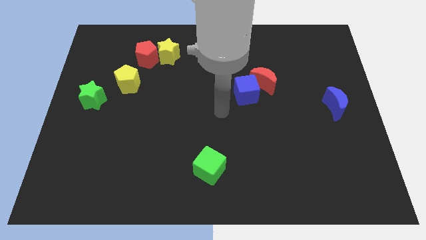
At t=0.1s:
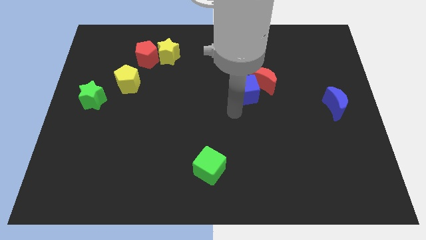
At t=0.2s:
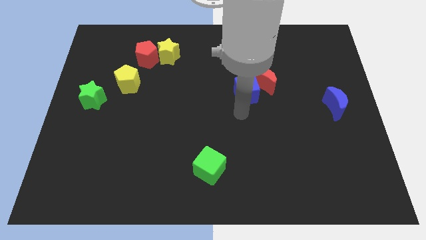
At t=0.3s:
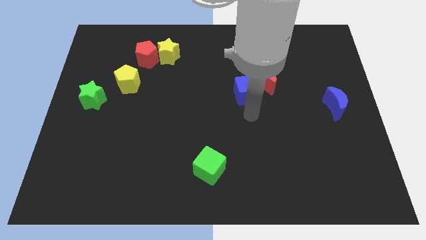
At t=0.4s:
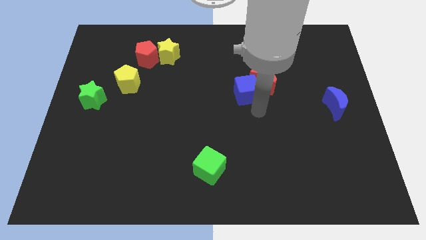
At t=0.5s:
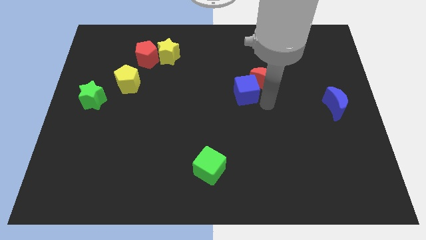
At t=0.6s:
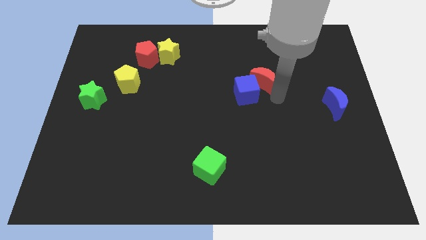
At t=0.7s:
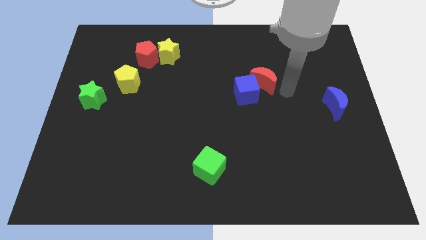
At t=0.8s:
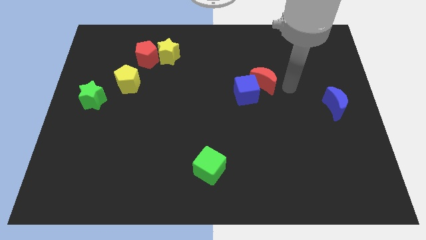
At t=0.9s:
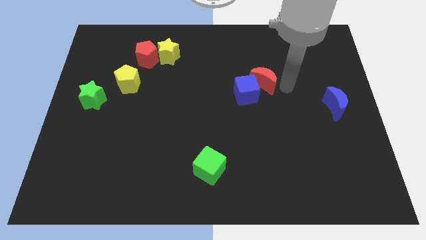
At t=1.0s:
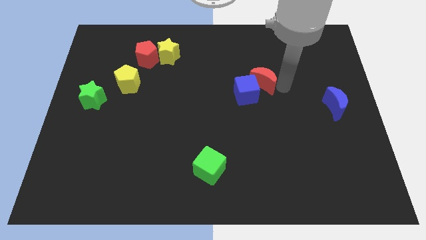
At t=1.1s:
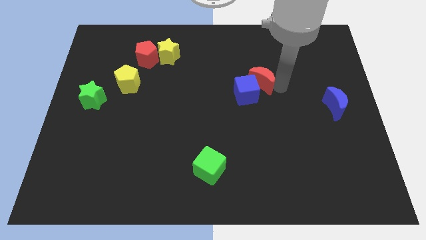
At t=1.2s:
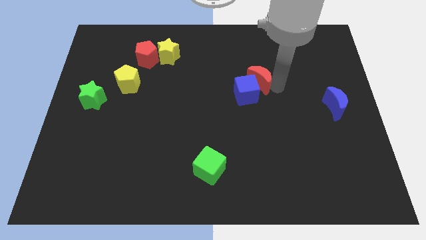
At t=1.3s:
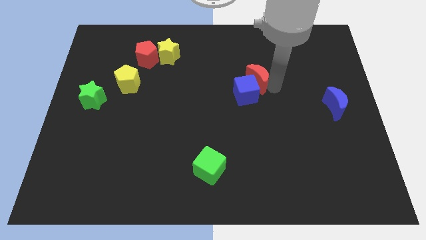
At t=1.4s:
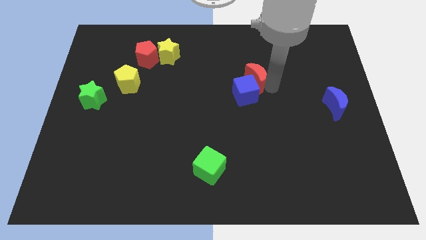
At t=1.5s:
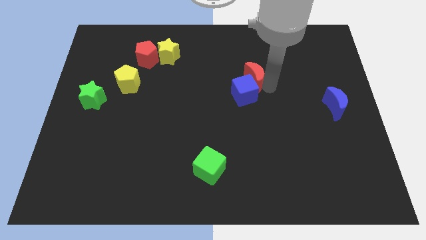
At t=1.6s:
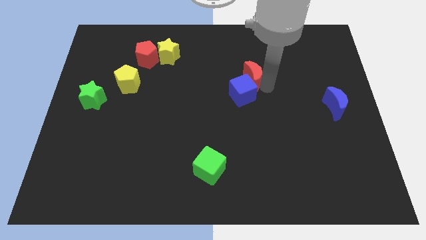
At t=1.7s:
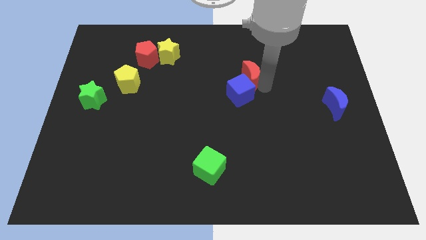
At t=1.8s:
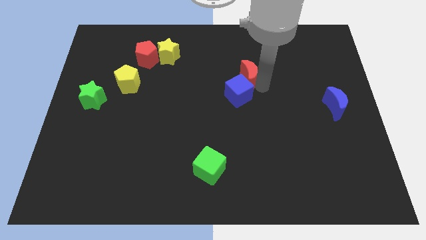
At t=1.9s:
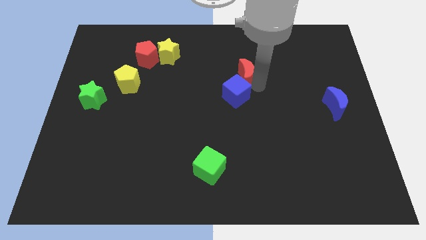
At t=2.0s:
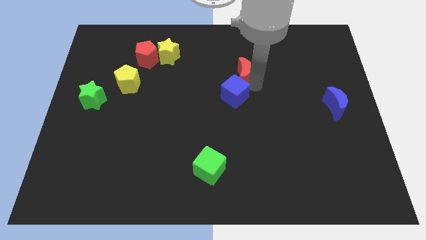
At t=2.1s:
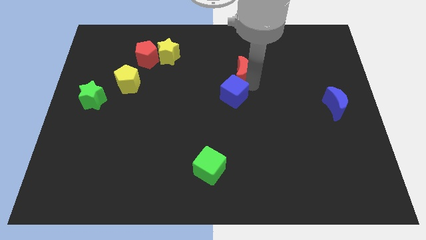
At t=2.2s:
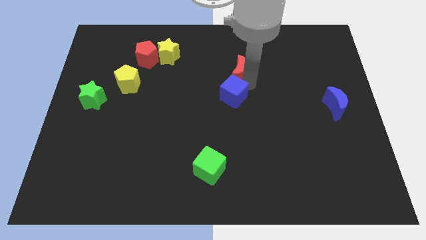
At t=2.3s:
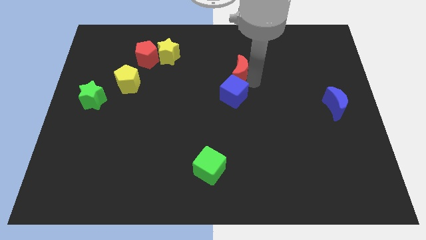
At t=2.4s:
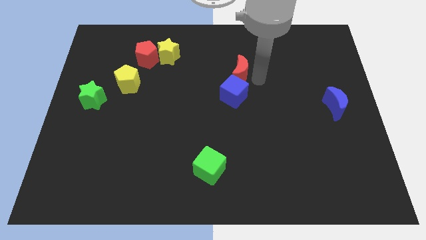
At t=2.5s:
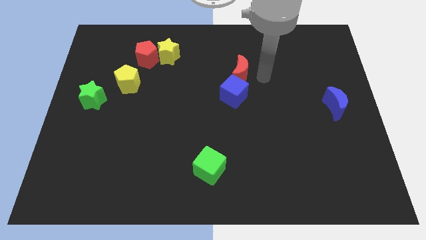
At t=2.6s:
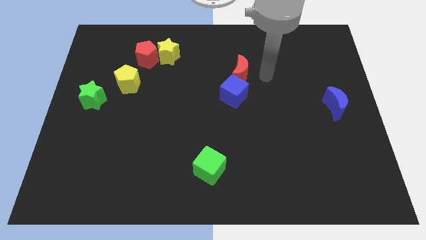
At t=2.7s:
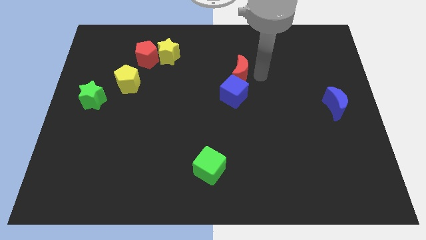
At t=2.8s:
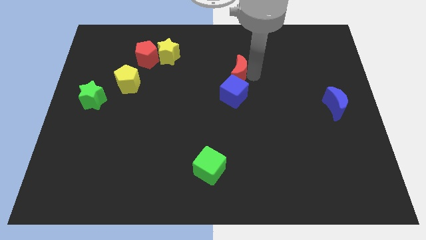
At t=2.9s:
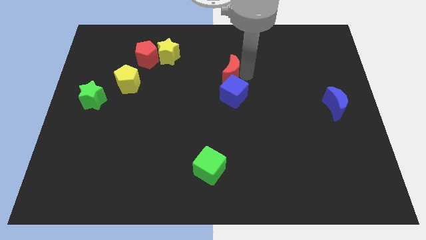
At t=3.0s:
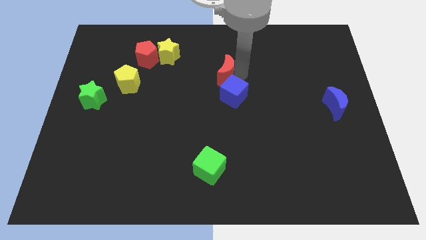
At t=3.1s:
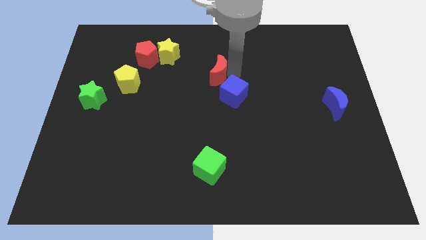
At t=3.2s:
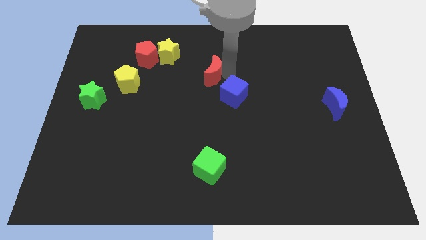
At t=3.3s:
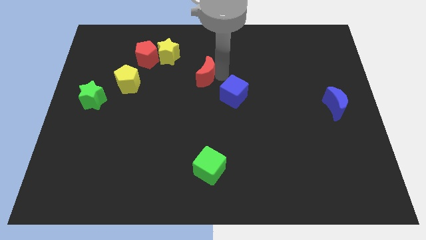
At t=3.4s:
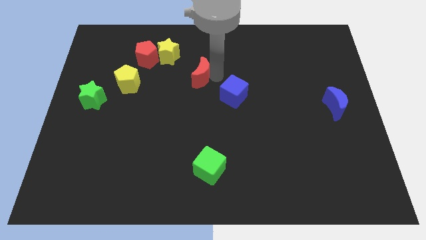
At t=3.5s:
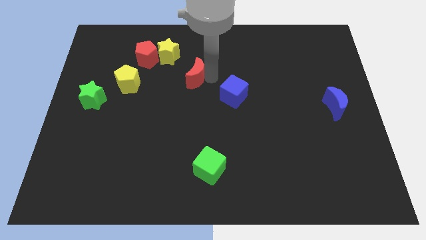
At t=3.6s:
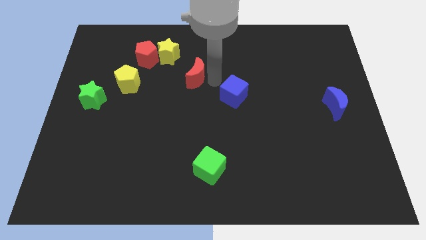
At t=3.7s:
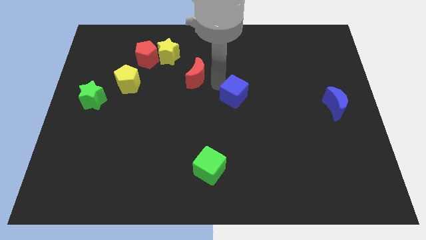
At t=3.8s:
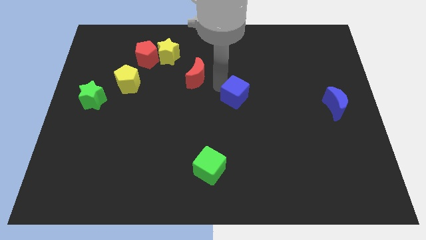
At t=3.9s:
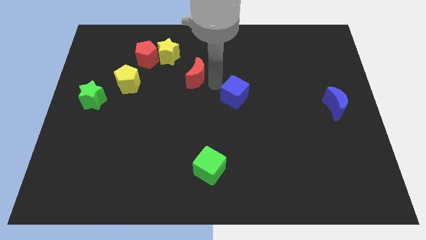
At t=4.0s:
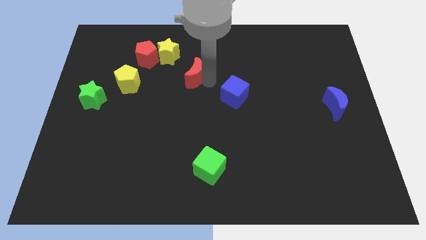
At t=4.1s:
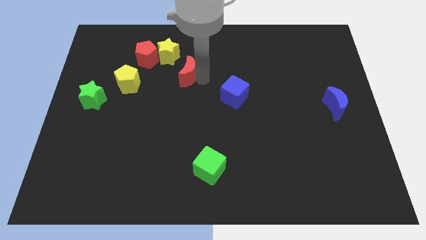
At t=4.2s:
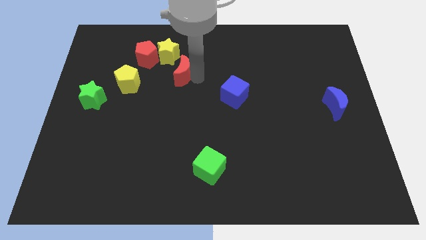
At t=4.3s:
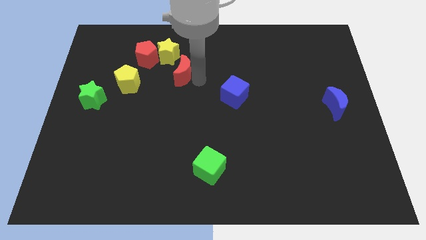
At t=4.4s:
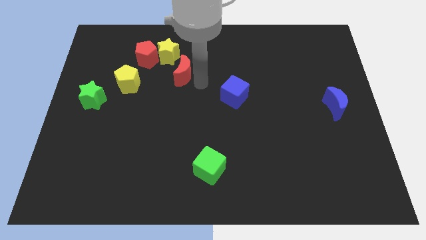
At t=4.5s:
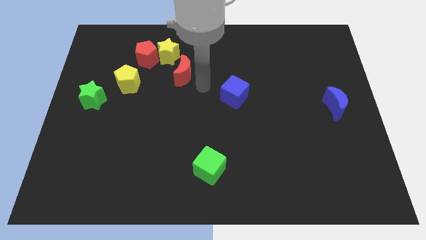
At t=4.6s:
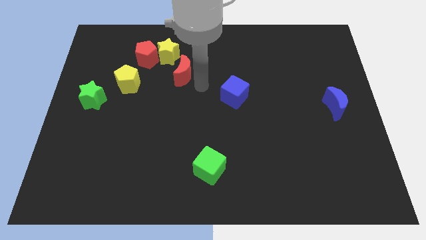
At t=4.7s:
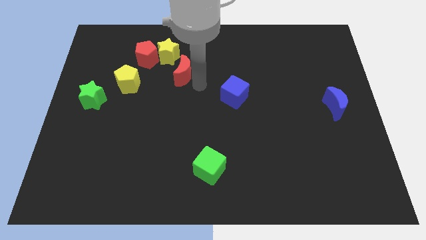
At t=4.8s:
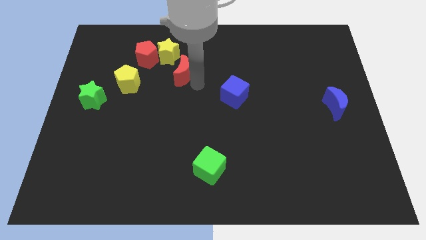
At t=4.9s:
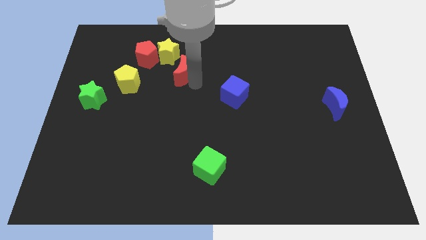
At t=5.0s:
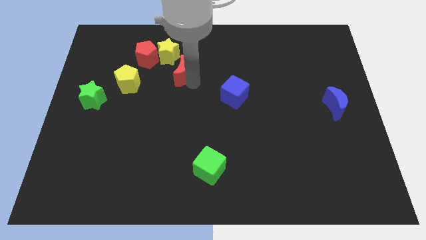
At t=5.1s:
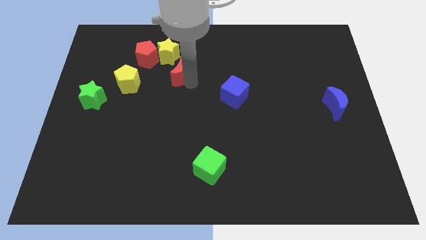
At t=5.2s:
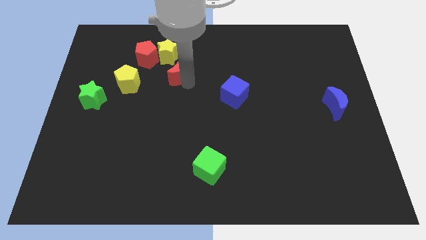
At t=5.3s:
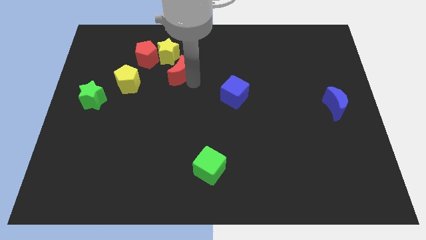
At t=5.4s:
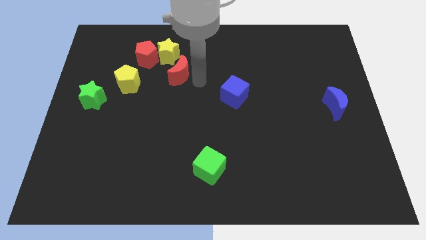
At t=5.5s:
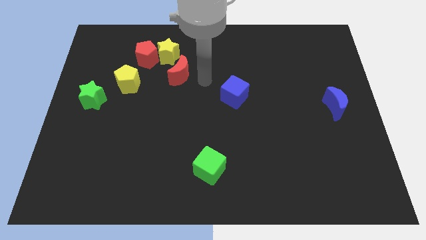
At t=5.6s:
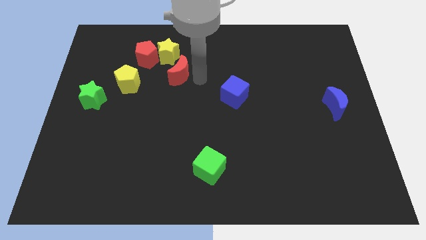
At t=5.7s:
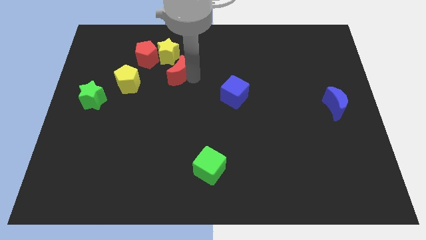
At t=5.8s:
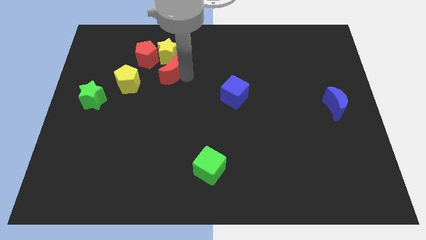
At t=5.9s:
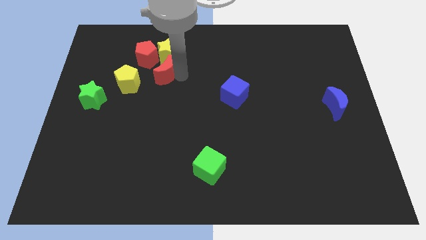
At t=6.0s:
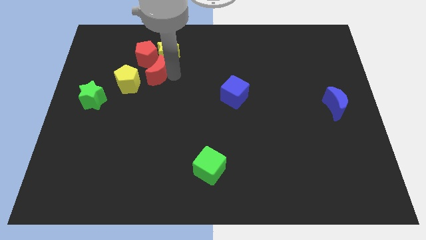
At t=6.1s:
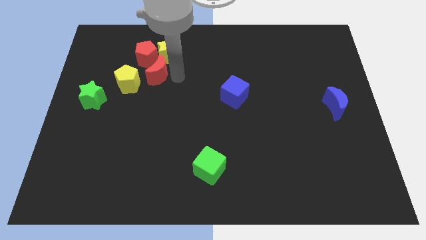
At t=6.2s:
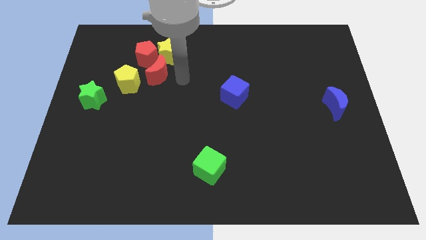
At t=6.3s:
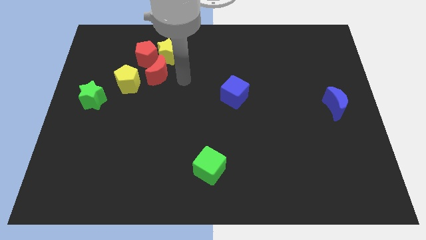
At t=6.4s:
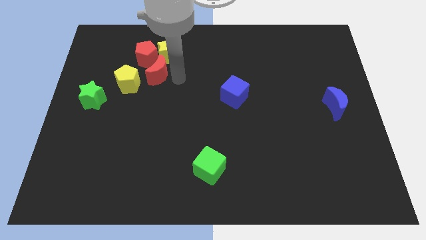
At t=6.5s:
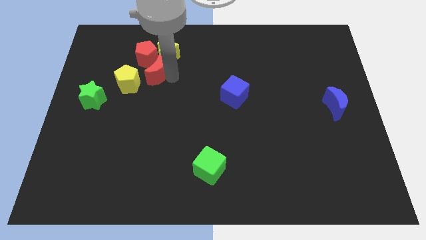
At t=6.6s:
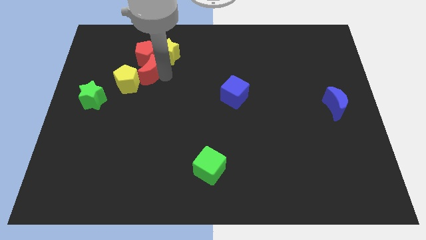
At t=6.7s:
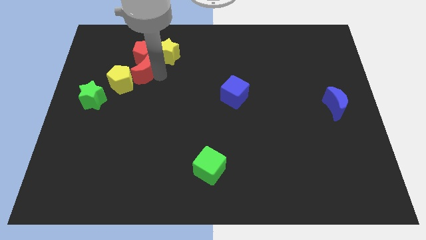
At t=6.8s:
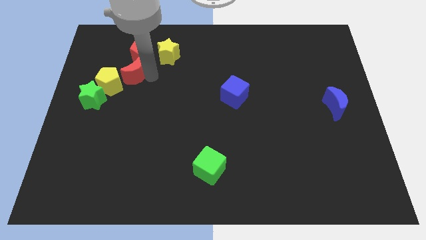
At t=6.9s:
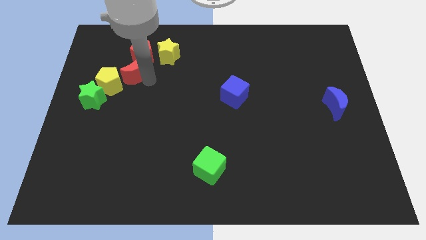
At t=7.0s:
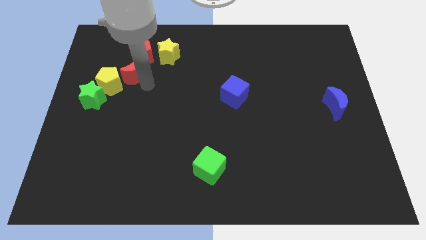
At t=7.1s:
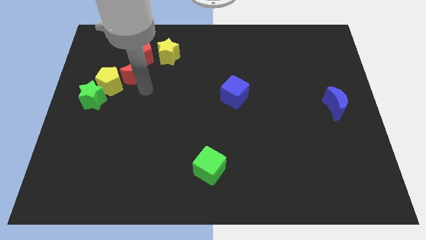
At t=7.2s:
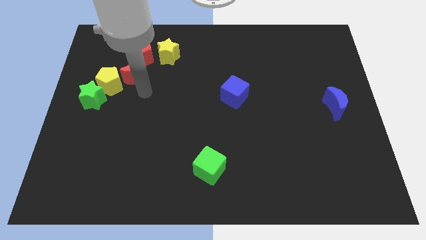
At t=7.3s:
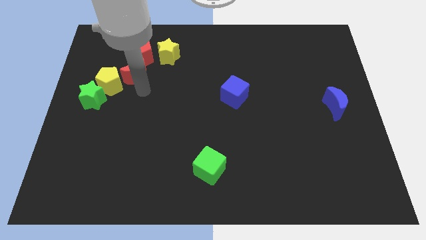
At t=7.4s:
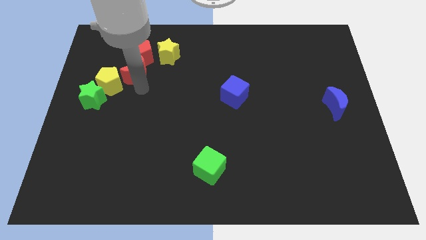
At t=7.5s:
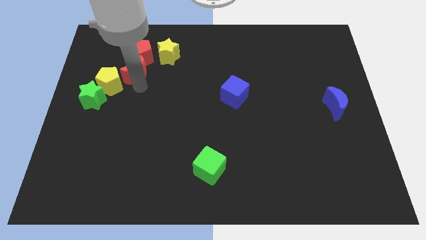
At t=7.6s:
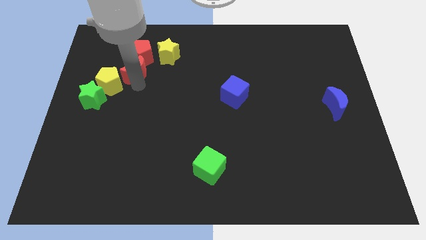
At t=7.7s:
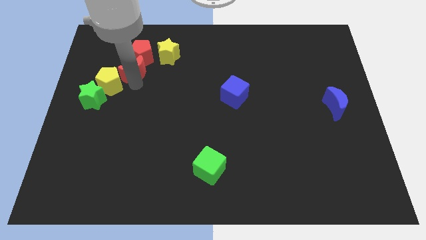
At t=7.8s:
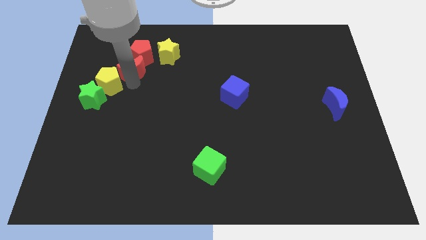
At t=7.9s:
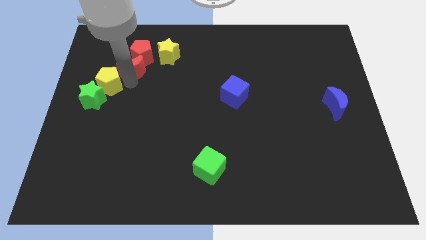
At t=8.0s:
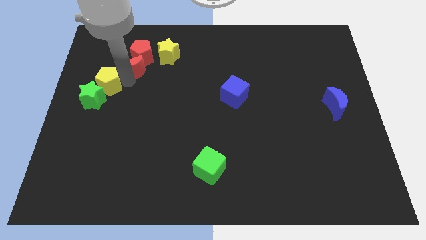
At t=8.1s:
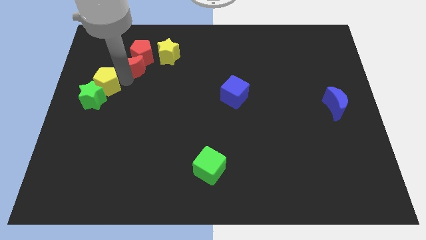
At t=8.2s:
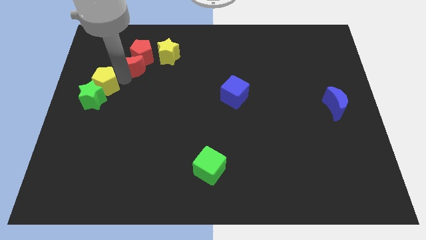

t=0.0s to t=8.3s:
move the red moon to the left of the yellow star
